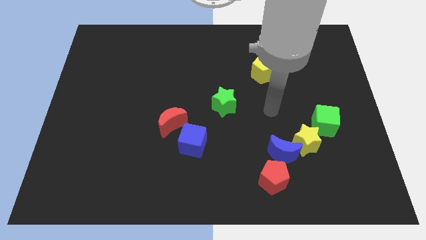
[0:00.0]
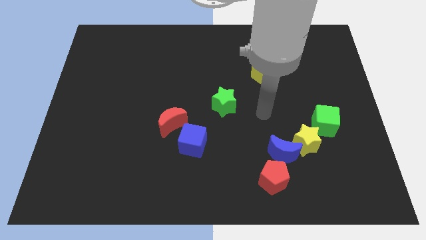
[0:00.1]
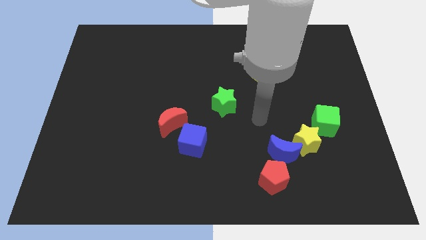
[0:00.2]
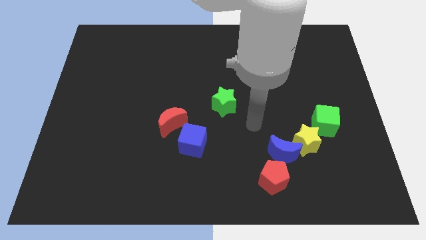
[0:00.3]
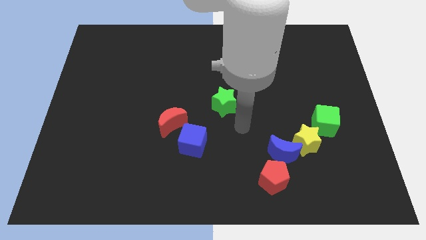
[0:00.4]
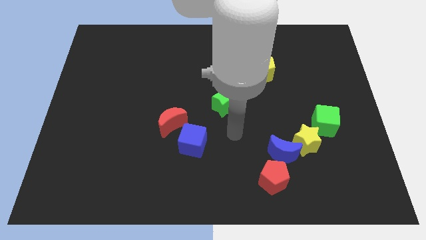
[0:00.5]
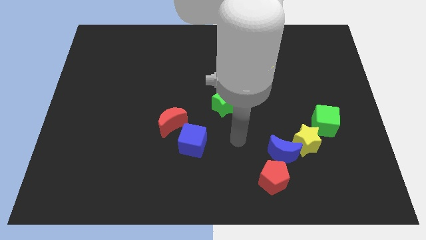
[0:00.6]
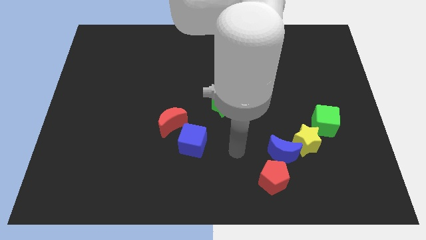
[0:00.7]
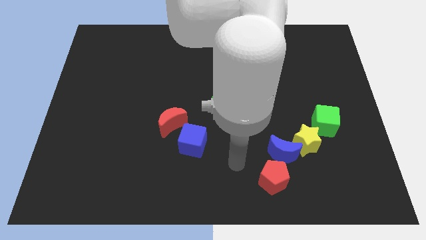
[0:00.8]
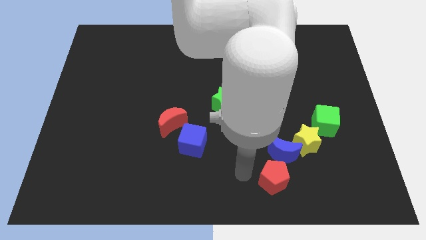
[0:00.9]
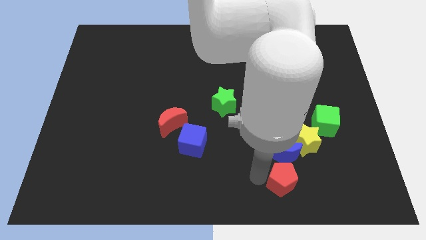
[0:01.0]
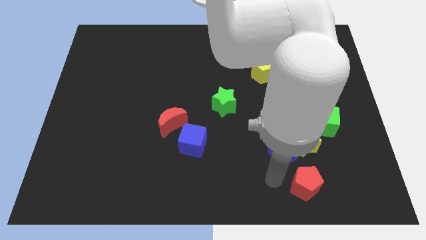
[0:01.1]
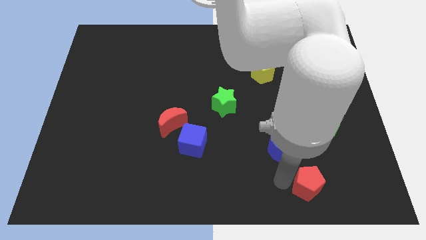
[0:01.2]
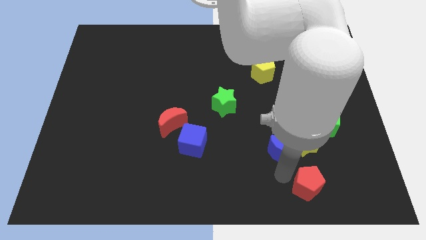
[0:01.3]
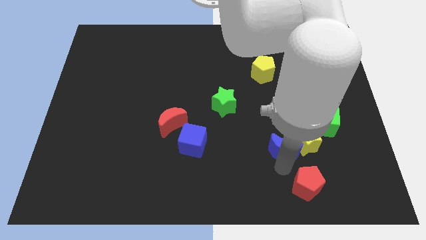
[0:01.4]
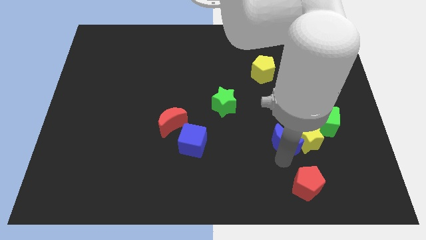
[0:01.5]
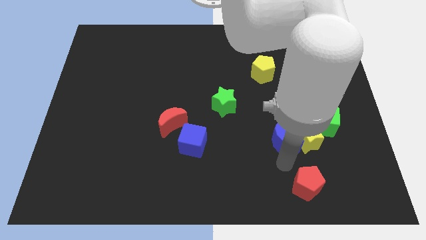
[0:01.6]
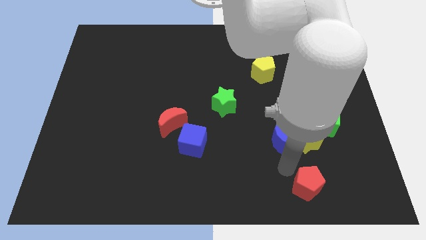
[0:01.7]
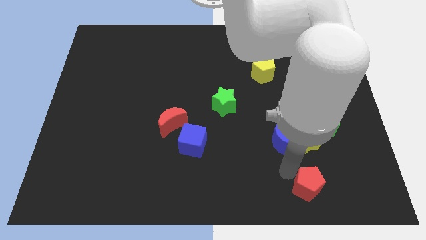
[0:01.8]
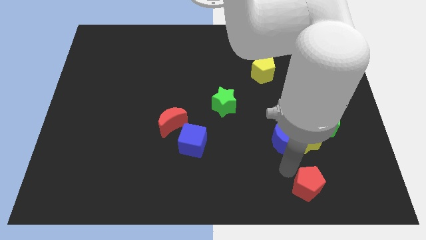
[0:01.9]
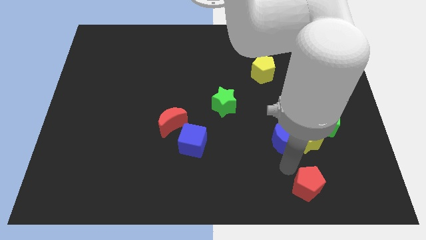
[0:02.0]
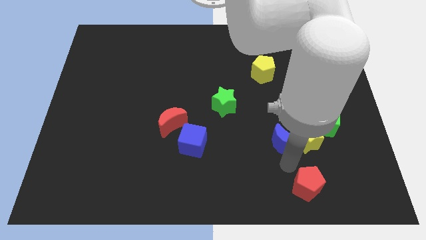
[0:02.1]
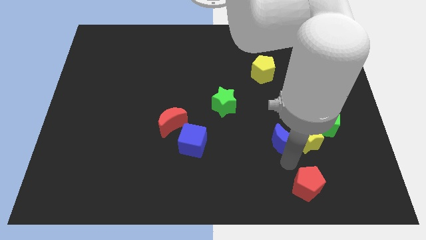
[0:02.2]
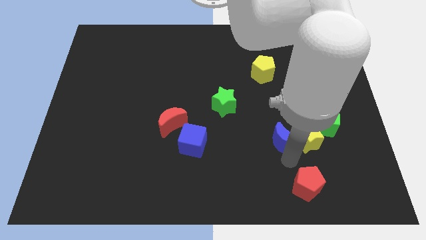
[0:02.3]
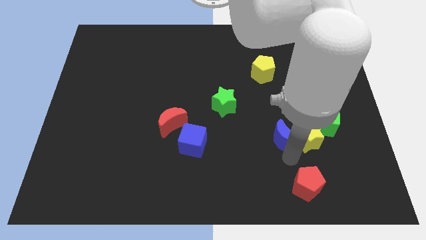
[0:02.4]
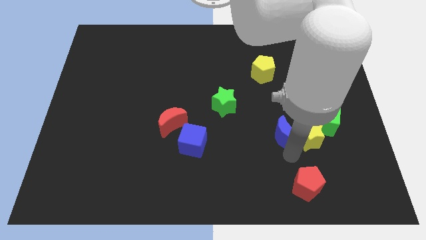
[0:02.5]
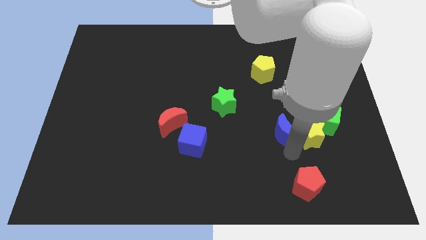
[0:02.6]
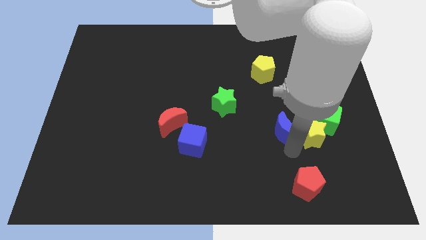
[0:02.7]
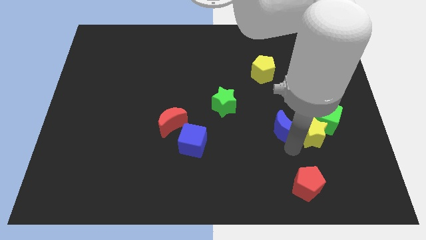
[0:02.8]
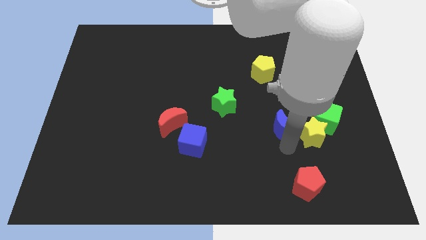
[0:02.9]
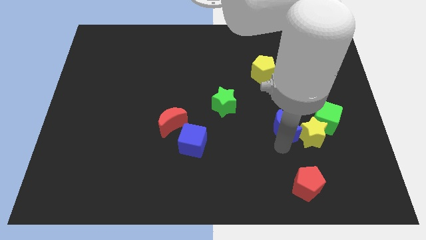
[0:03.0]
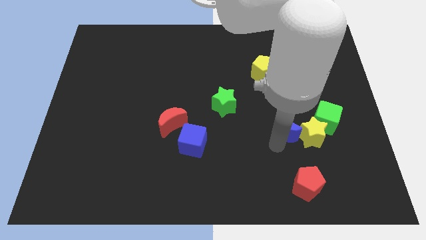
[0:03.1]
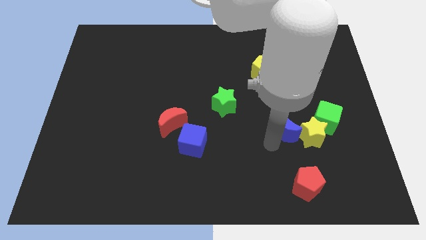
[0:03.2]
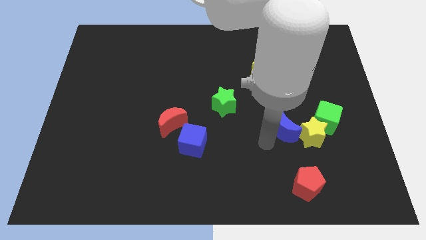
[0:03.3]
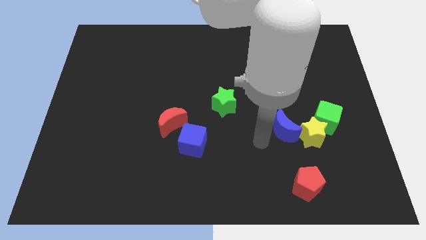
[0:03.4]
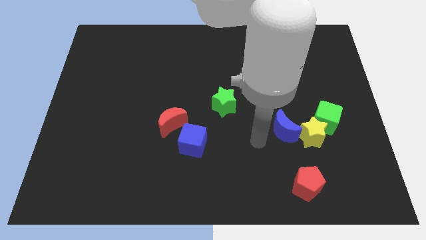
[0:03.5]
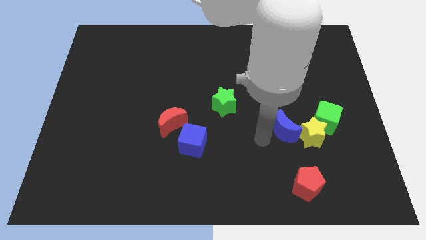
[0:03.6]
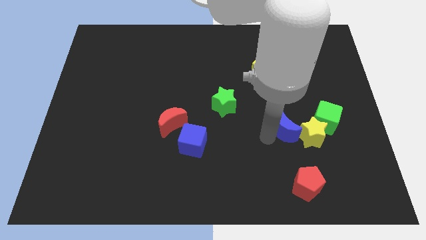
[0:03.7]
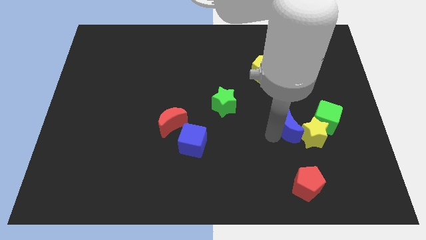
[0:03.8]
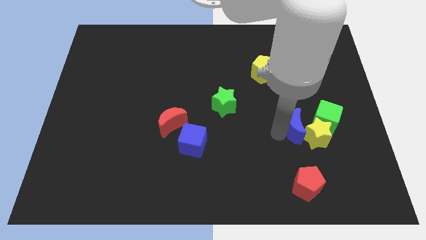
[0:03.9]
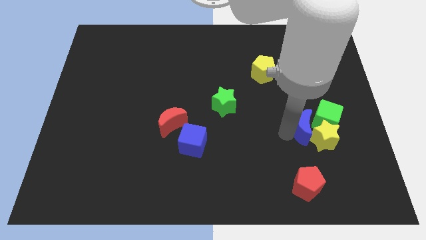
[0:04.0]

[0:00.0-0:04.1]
move the blue moon diagonally upwards and right slightly

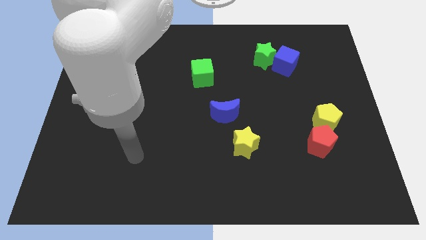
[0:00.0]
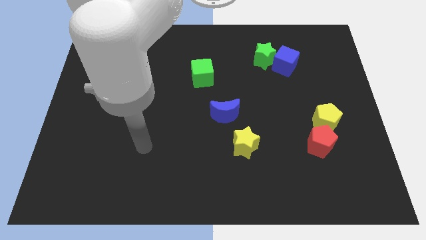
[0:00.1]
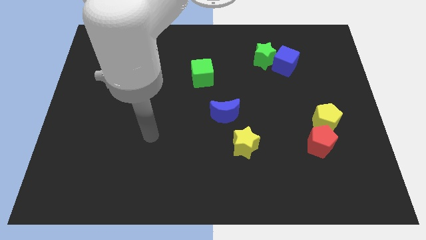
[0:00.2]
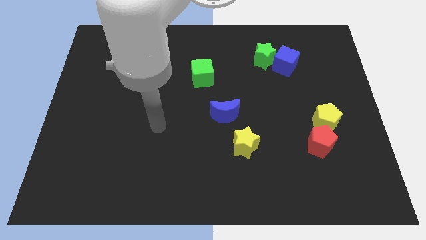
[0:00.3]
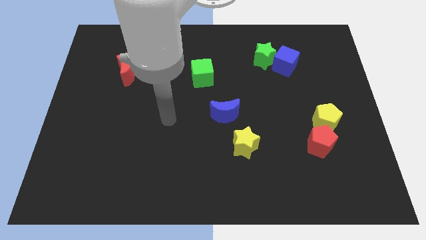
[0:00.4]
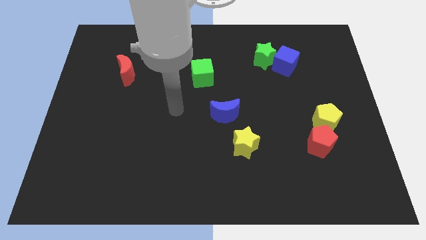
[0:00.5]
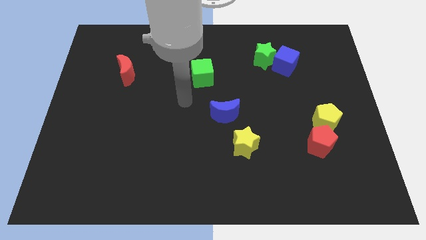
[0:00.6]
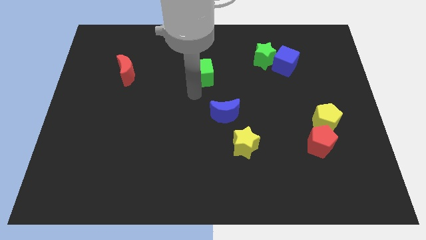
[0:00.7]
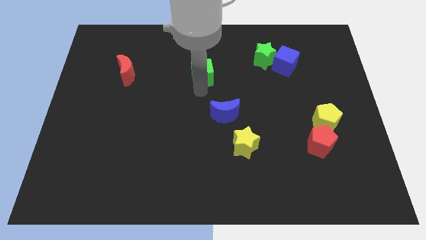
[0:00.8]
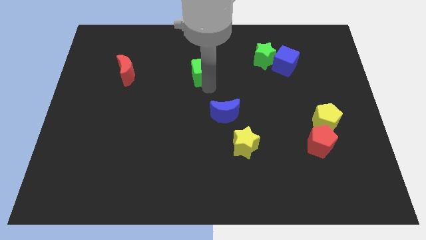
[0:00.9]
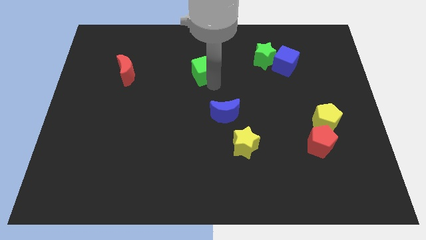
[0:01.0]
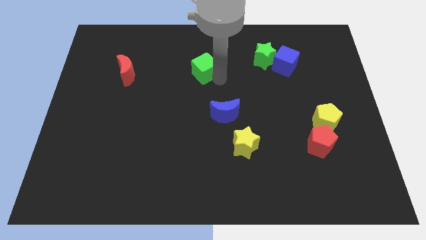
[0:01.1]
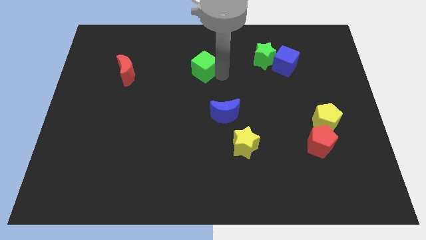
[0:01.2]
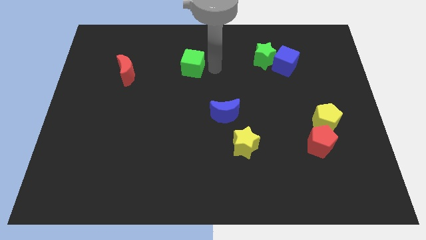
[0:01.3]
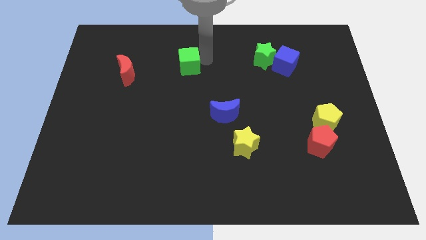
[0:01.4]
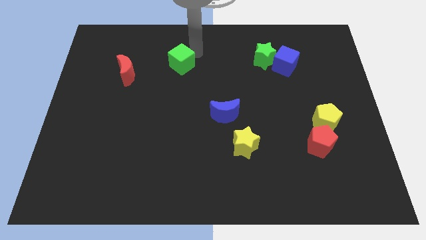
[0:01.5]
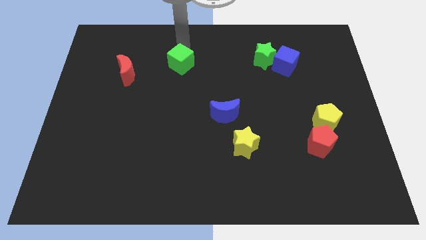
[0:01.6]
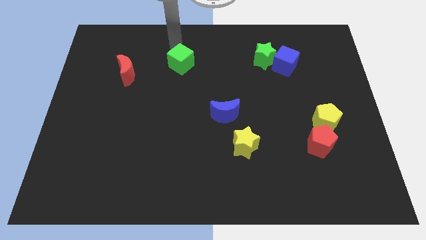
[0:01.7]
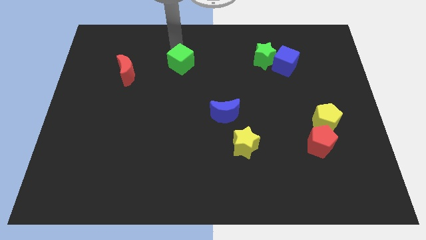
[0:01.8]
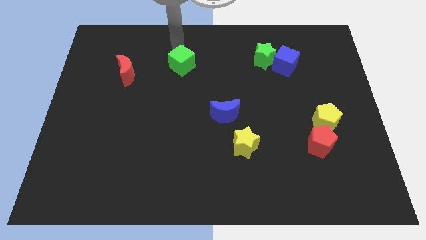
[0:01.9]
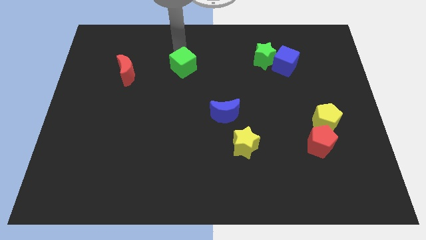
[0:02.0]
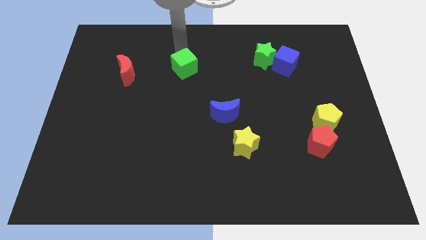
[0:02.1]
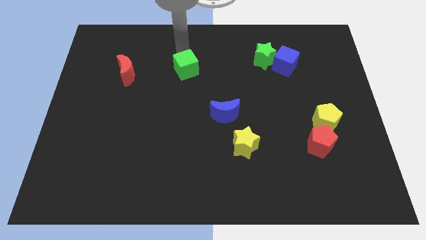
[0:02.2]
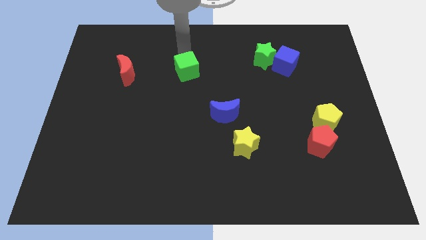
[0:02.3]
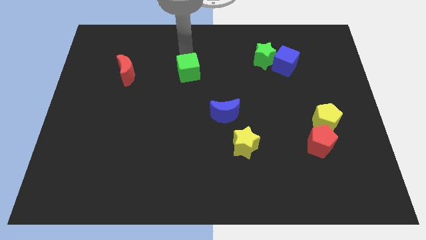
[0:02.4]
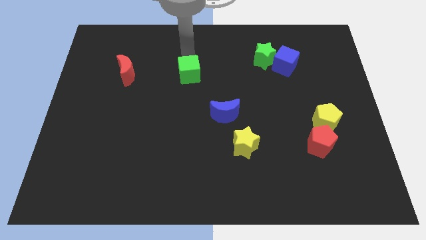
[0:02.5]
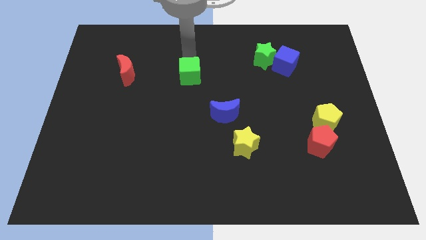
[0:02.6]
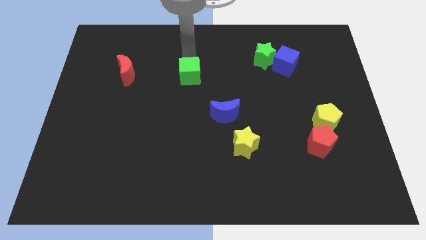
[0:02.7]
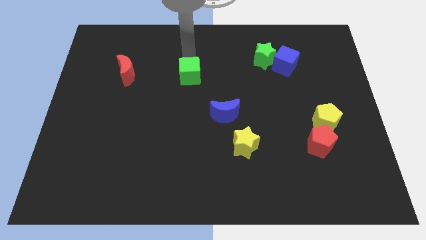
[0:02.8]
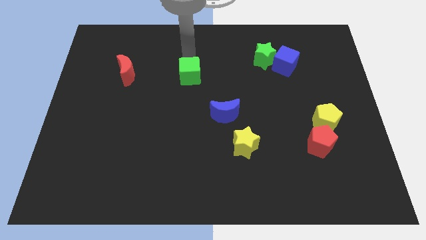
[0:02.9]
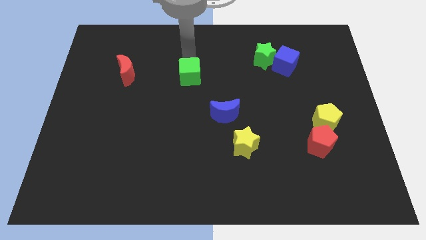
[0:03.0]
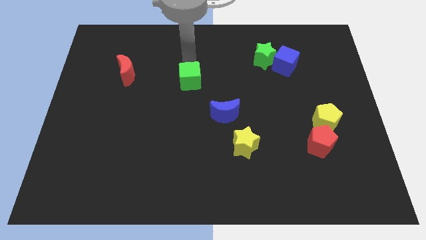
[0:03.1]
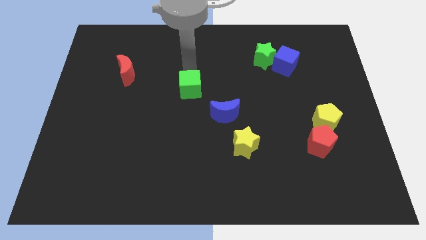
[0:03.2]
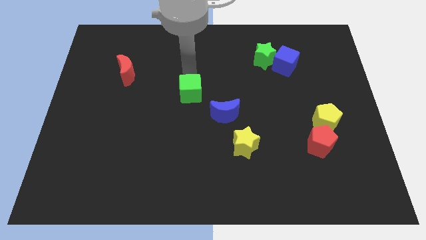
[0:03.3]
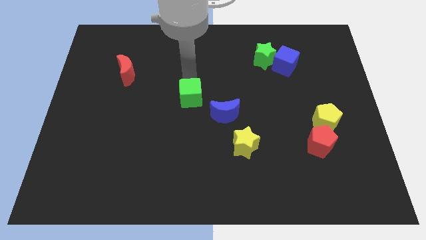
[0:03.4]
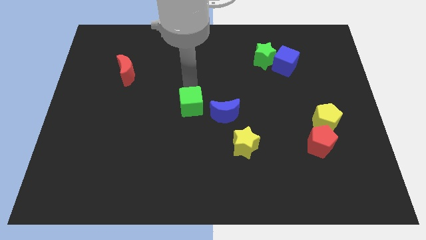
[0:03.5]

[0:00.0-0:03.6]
slide the green cube somewhat down

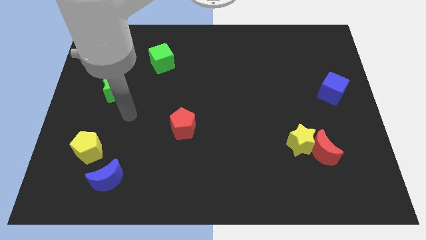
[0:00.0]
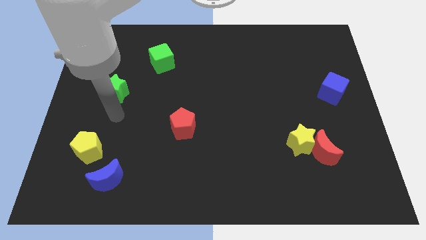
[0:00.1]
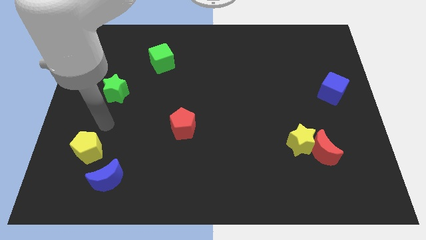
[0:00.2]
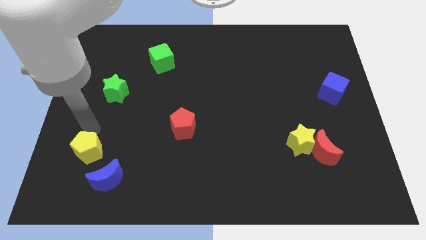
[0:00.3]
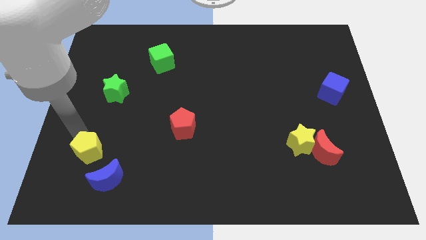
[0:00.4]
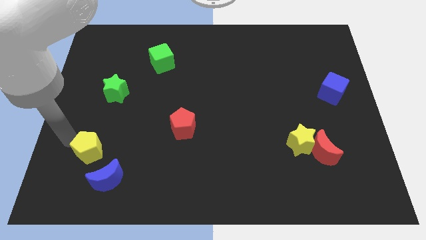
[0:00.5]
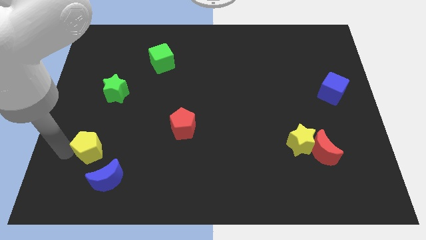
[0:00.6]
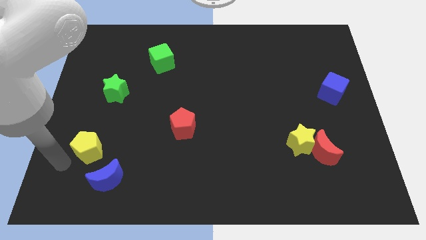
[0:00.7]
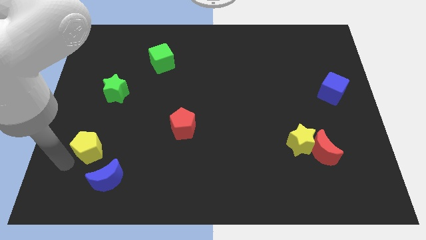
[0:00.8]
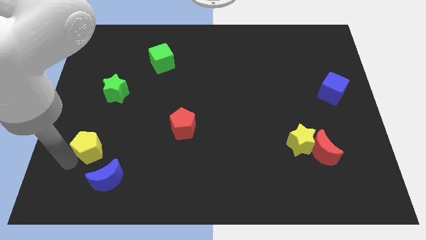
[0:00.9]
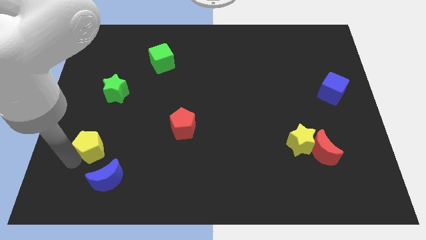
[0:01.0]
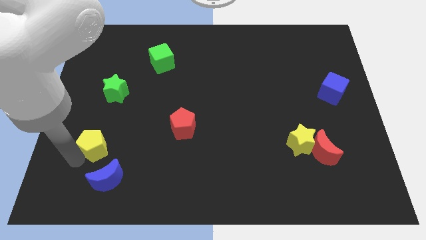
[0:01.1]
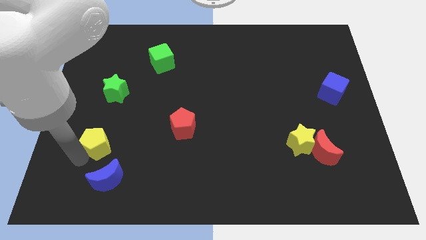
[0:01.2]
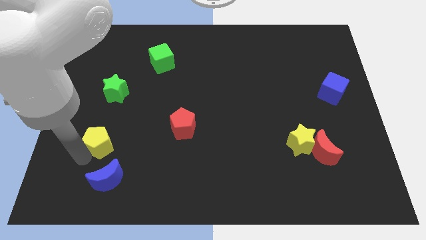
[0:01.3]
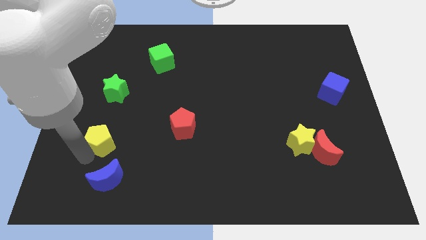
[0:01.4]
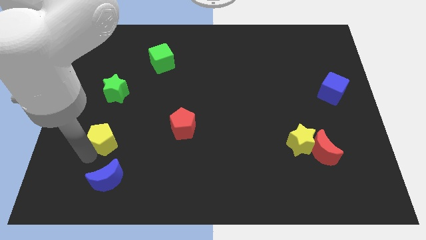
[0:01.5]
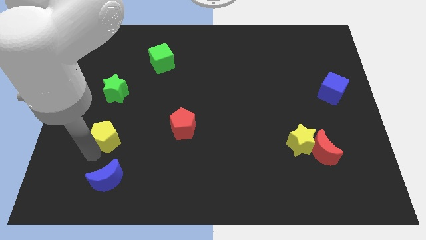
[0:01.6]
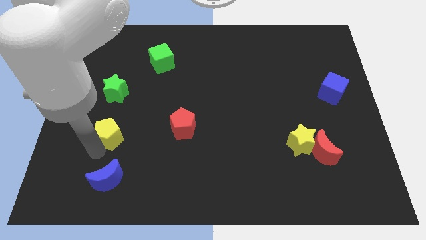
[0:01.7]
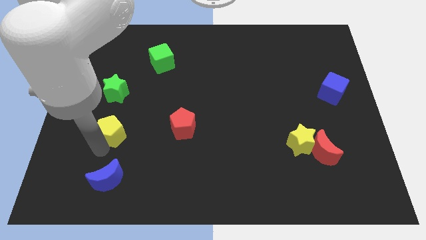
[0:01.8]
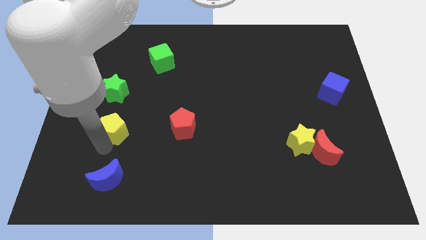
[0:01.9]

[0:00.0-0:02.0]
slide the yellow pentagon a little upwards and to the right diagonally
